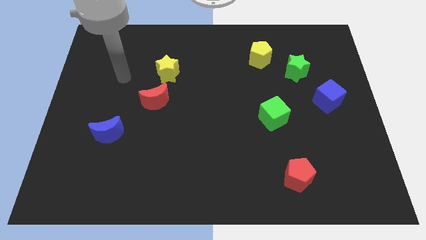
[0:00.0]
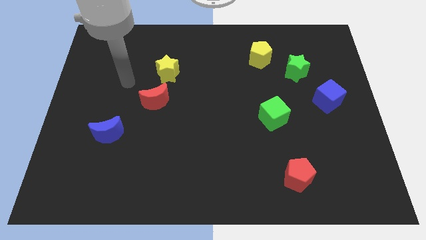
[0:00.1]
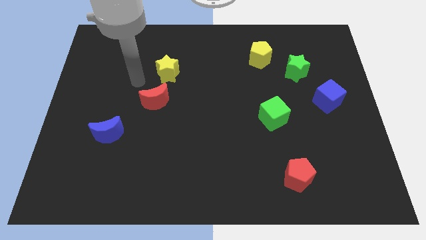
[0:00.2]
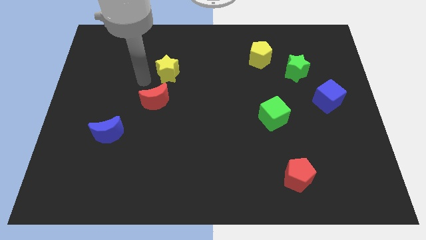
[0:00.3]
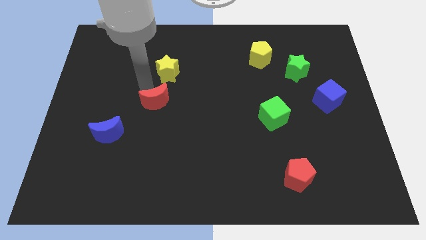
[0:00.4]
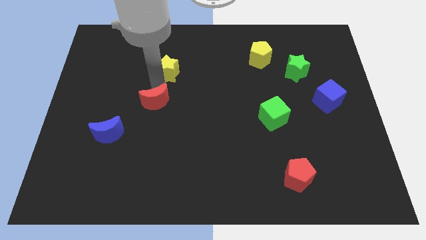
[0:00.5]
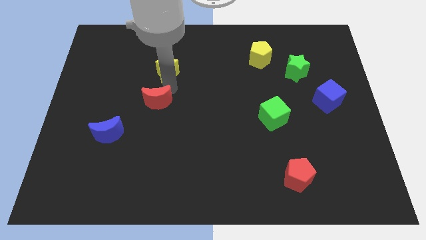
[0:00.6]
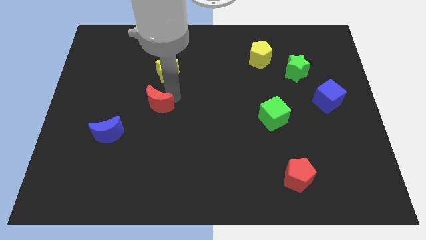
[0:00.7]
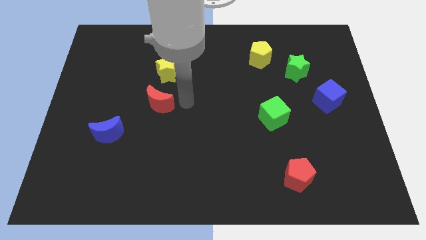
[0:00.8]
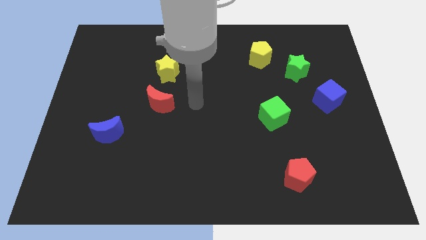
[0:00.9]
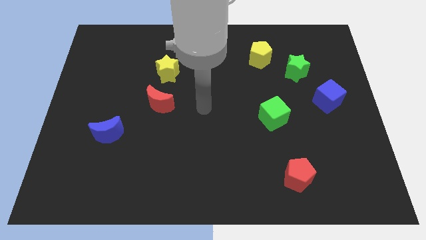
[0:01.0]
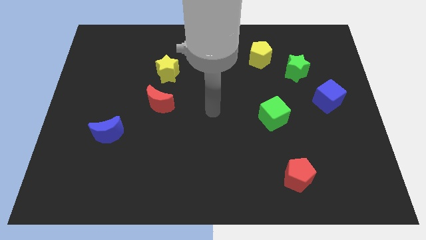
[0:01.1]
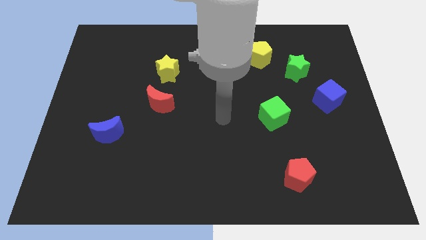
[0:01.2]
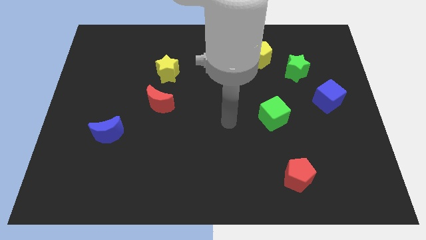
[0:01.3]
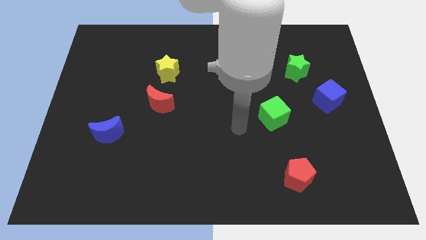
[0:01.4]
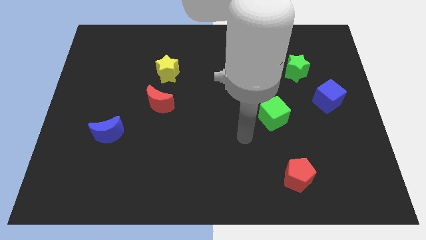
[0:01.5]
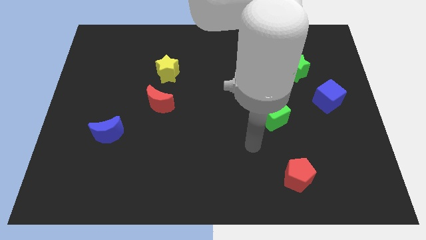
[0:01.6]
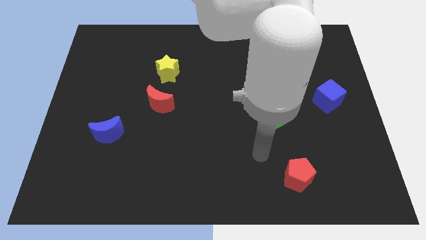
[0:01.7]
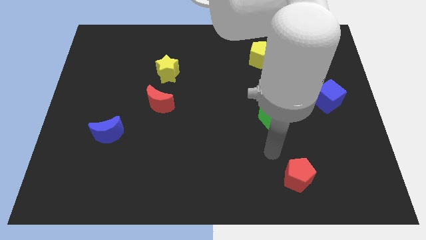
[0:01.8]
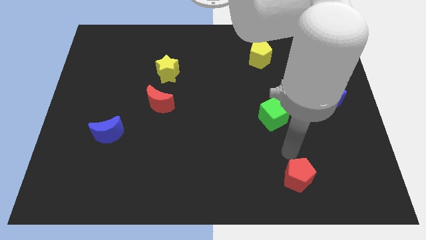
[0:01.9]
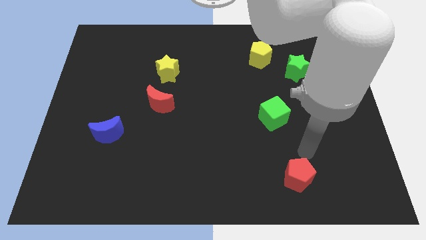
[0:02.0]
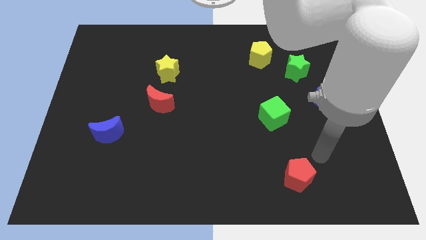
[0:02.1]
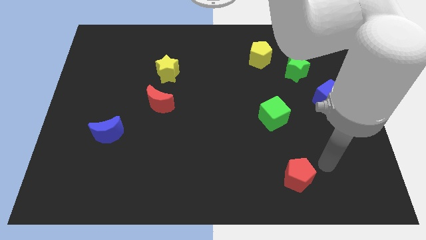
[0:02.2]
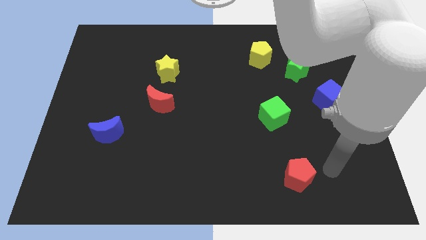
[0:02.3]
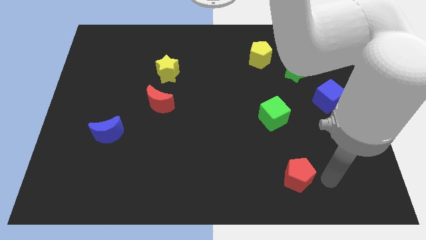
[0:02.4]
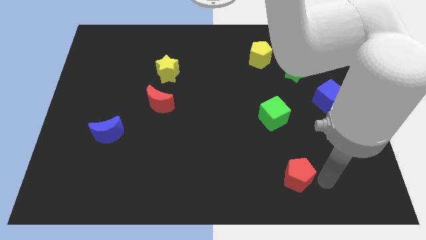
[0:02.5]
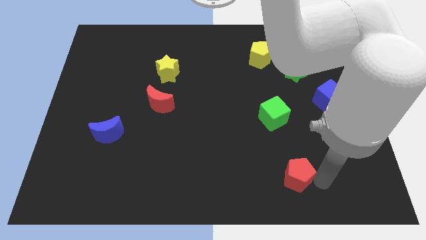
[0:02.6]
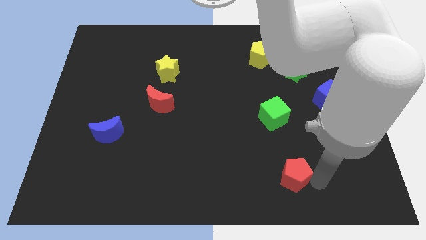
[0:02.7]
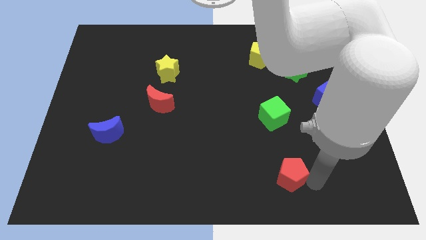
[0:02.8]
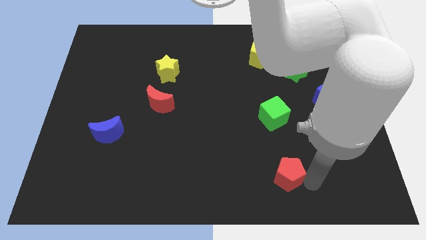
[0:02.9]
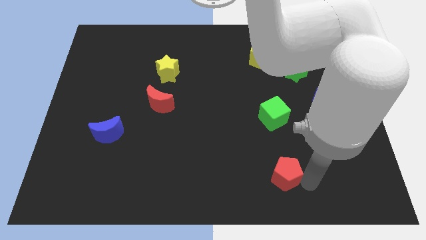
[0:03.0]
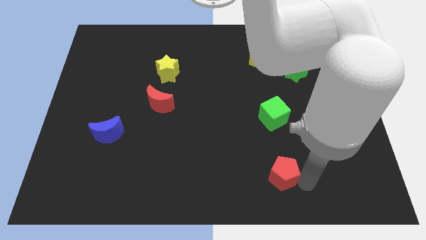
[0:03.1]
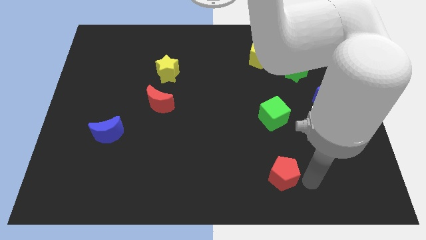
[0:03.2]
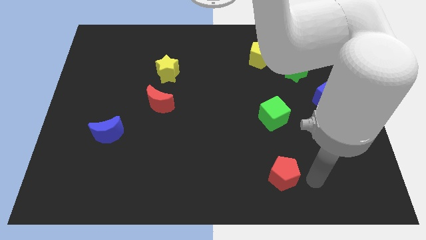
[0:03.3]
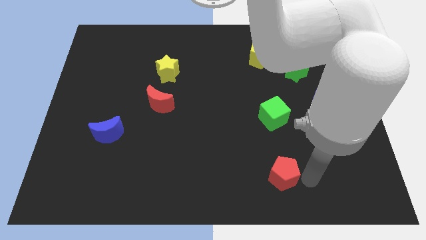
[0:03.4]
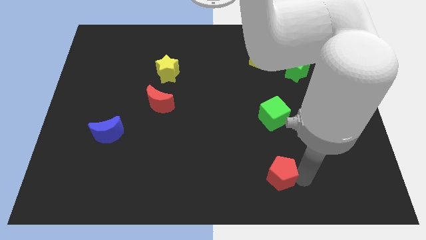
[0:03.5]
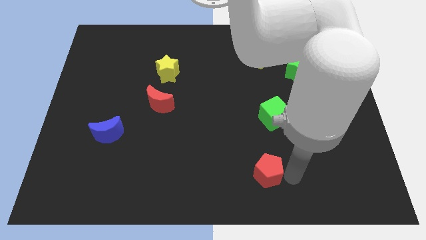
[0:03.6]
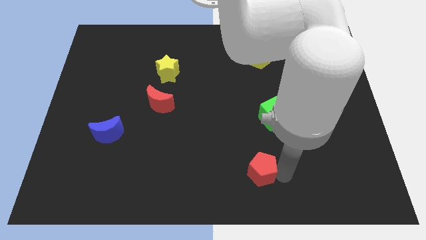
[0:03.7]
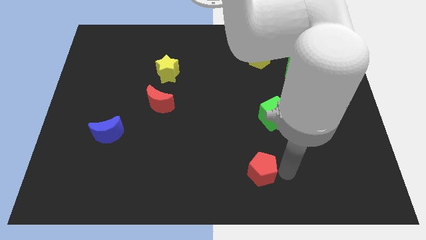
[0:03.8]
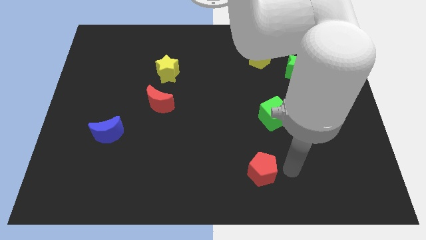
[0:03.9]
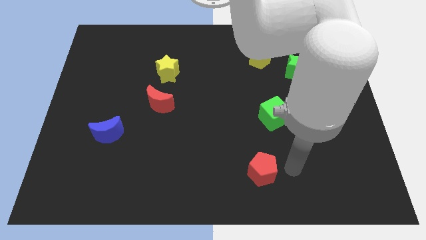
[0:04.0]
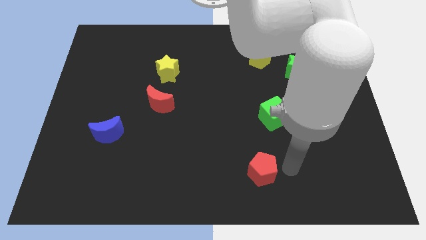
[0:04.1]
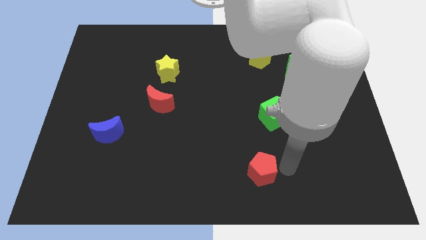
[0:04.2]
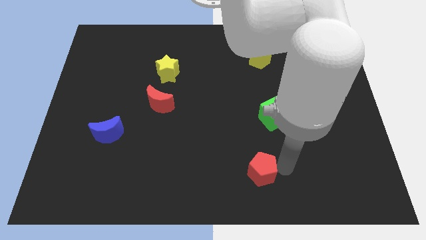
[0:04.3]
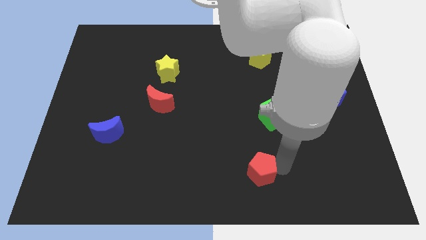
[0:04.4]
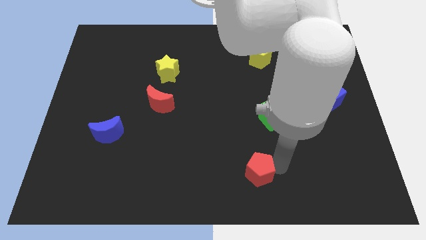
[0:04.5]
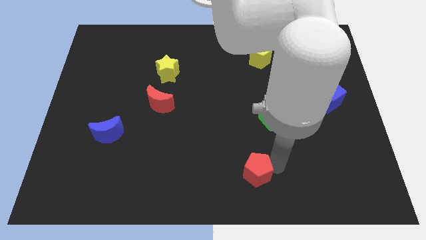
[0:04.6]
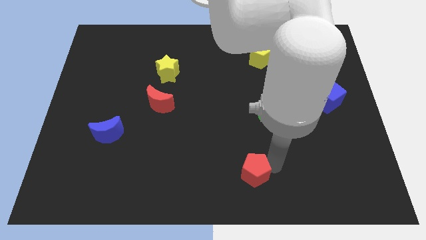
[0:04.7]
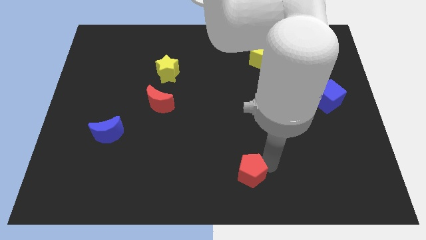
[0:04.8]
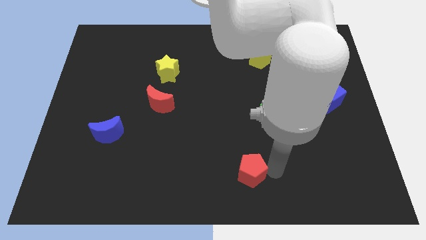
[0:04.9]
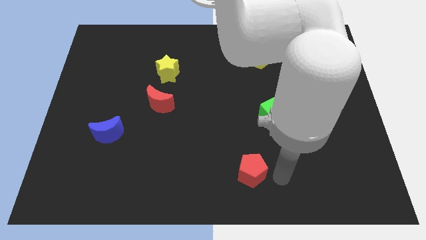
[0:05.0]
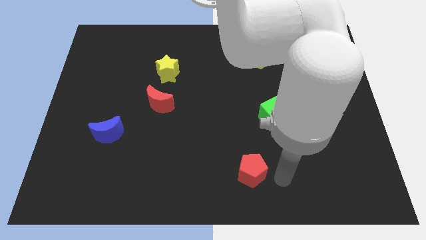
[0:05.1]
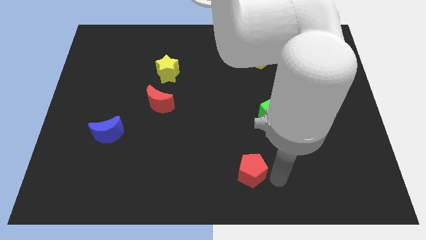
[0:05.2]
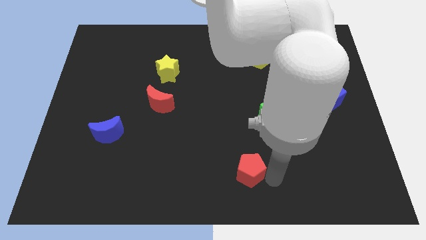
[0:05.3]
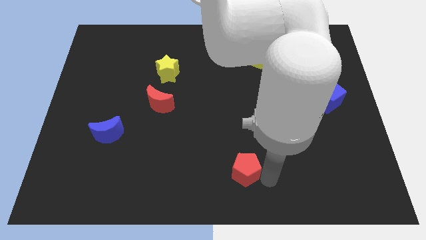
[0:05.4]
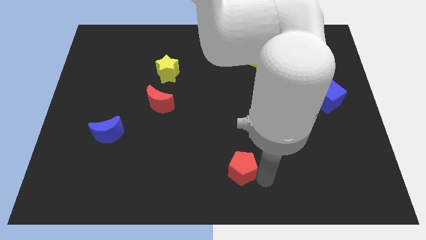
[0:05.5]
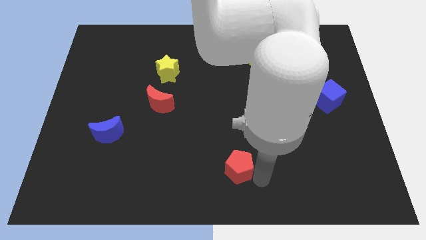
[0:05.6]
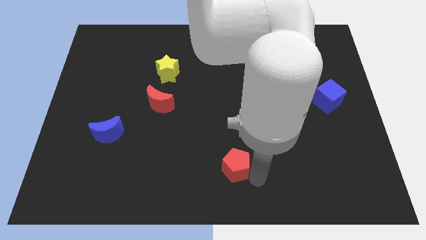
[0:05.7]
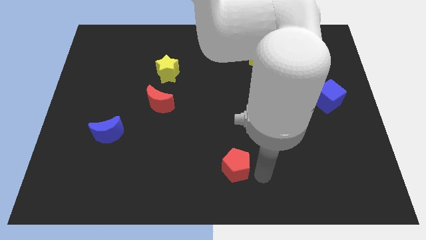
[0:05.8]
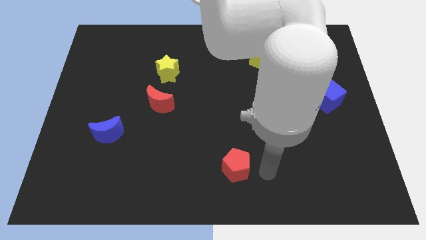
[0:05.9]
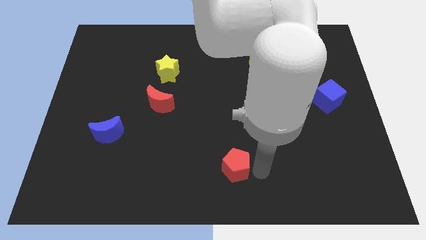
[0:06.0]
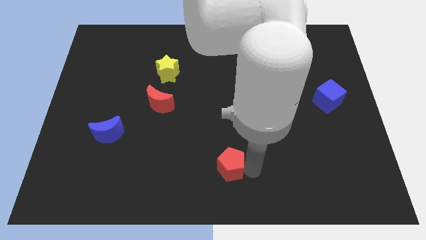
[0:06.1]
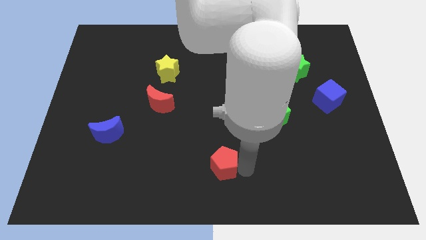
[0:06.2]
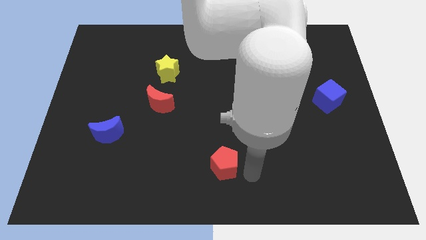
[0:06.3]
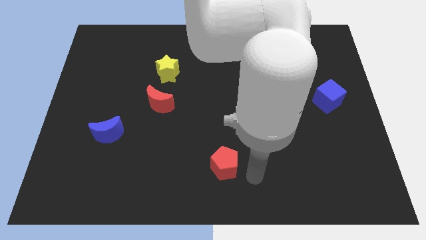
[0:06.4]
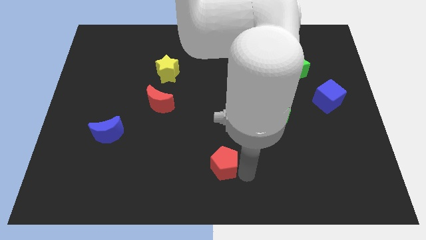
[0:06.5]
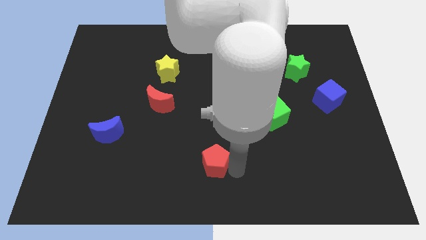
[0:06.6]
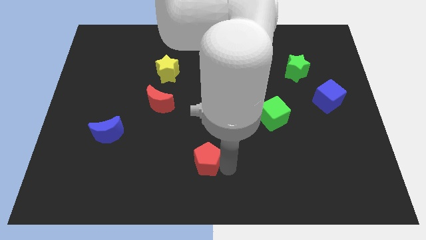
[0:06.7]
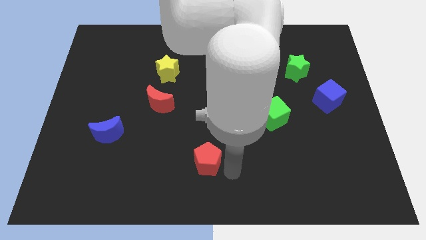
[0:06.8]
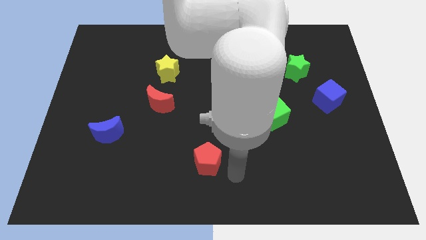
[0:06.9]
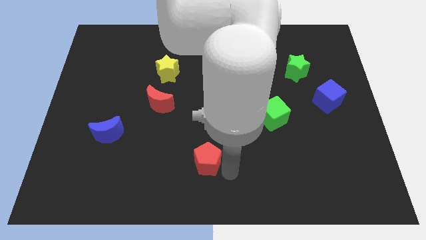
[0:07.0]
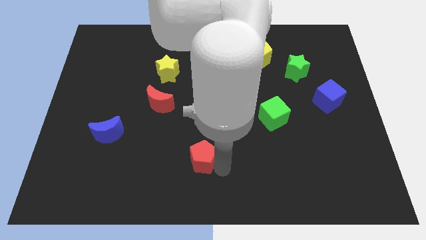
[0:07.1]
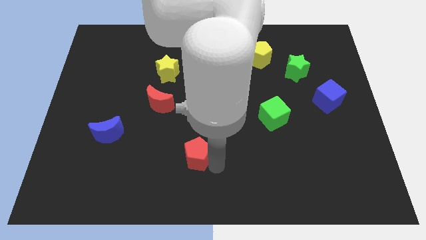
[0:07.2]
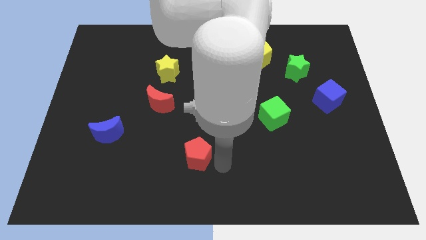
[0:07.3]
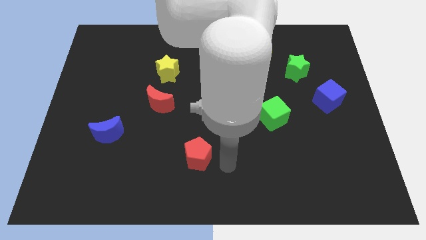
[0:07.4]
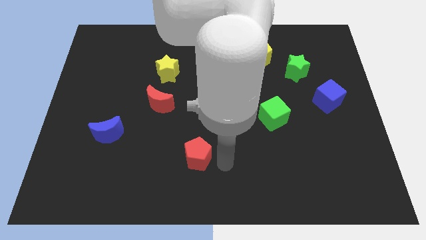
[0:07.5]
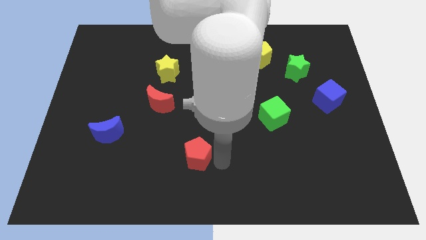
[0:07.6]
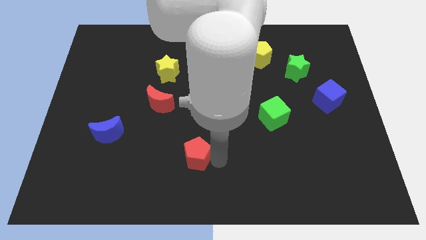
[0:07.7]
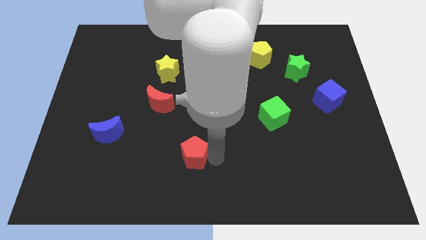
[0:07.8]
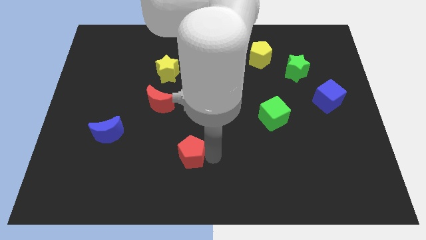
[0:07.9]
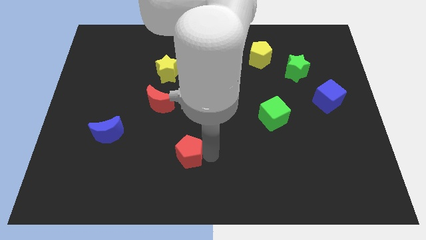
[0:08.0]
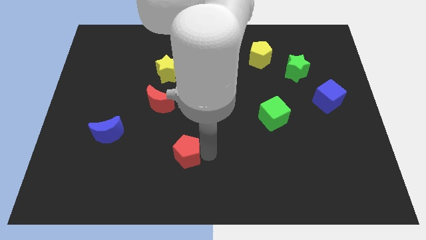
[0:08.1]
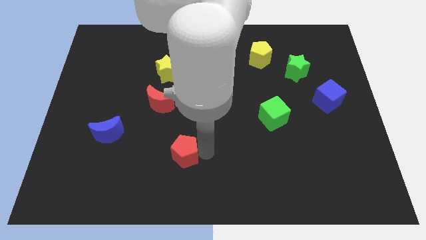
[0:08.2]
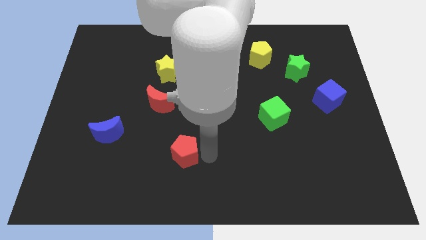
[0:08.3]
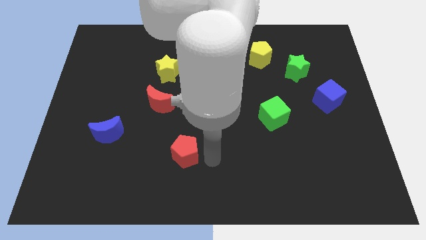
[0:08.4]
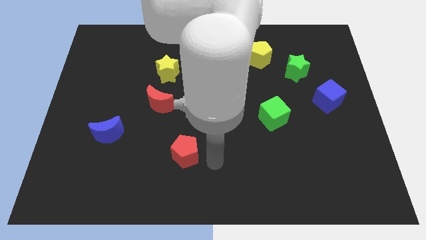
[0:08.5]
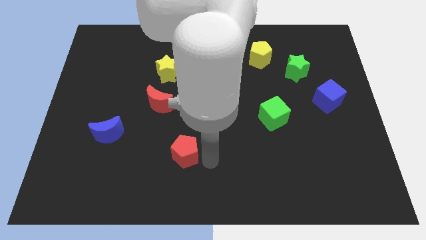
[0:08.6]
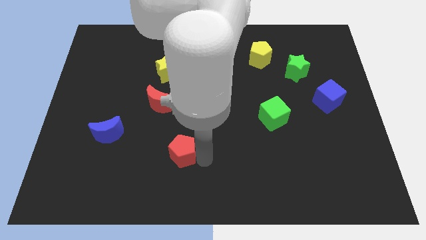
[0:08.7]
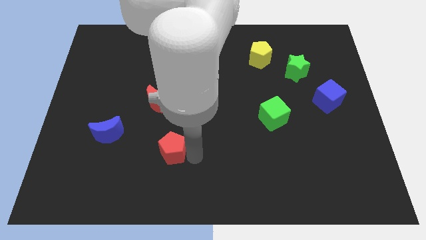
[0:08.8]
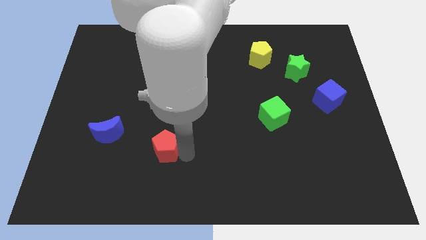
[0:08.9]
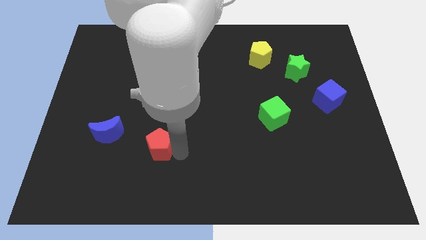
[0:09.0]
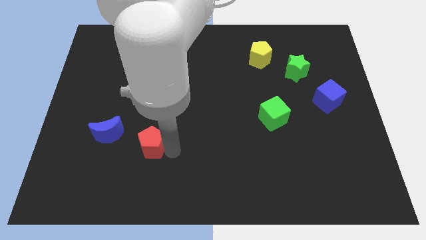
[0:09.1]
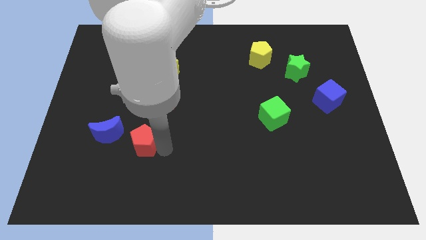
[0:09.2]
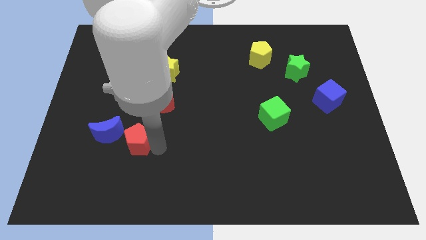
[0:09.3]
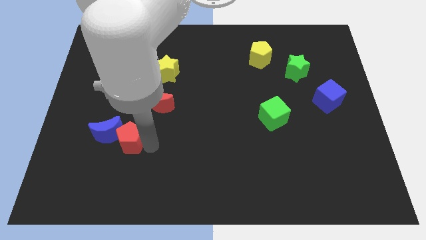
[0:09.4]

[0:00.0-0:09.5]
push the red pentagon to the blue moon
